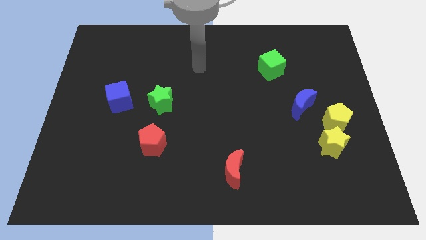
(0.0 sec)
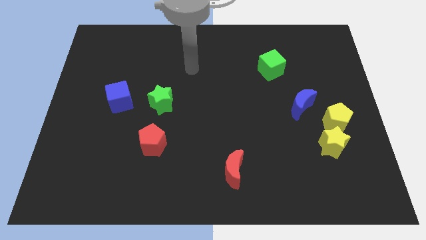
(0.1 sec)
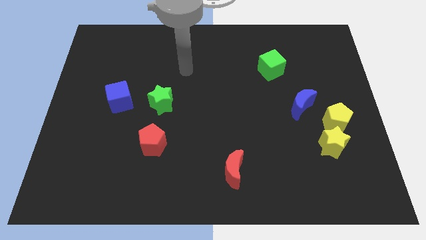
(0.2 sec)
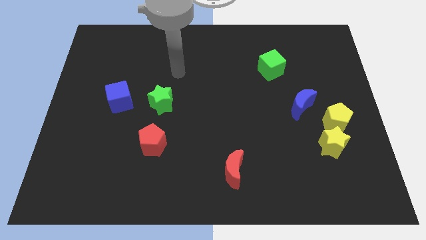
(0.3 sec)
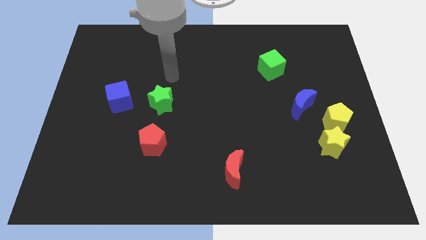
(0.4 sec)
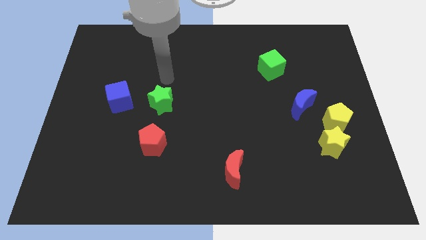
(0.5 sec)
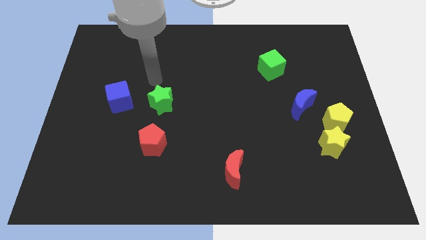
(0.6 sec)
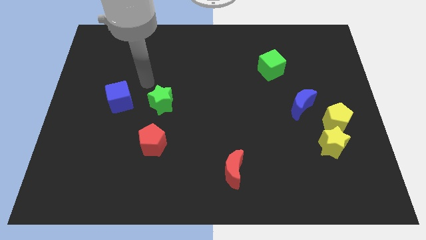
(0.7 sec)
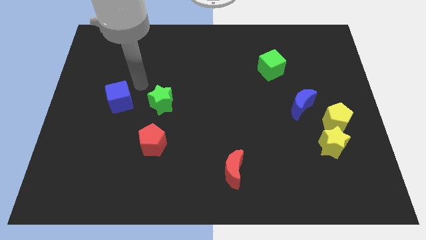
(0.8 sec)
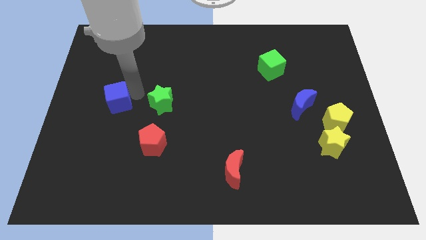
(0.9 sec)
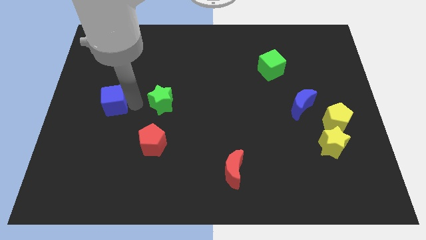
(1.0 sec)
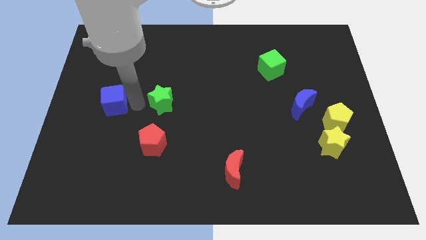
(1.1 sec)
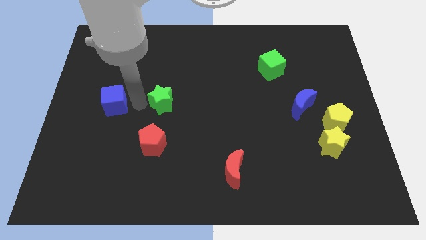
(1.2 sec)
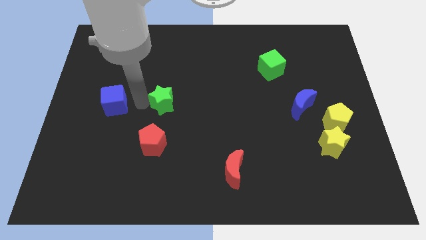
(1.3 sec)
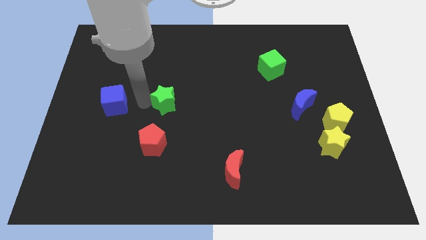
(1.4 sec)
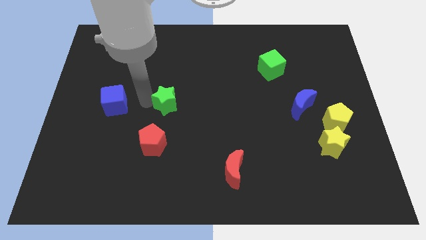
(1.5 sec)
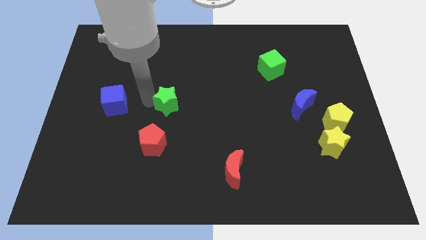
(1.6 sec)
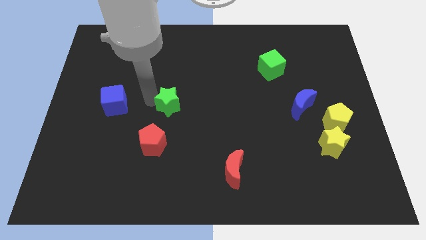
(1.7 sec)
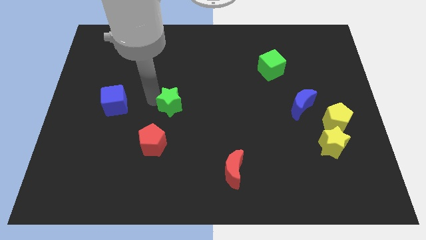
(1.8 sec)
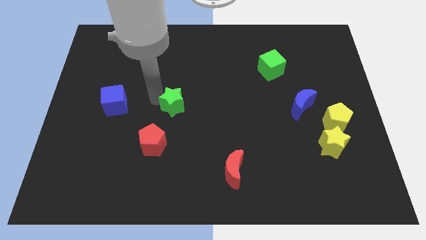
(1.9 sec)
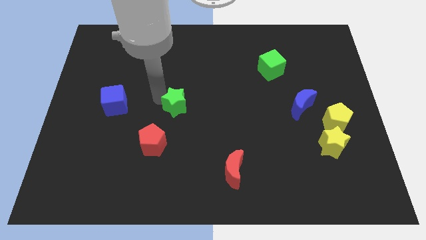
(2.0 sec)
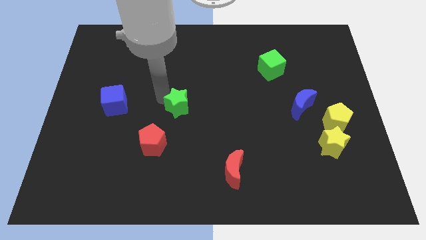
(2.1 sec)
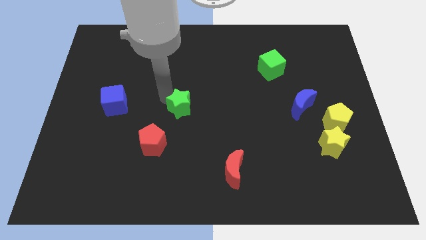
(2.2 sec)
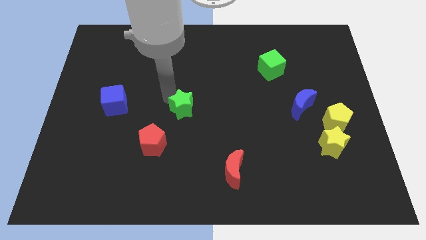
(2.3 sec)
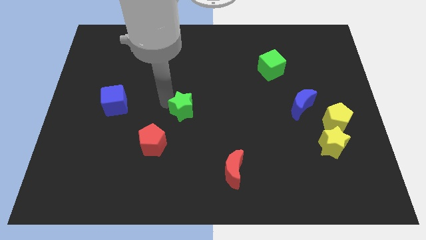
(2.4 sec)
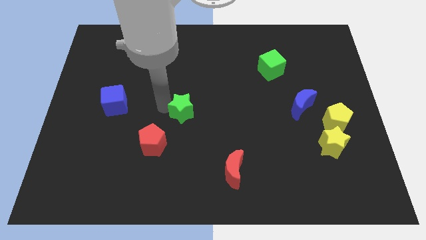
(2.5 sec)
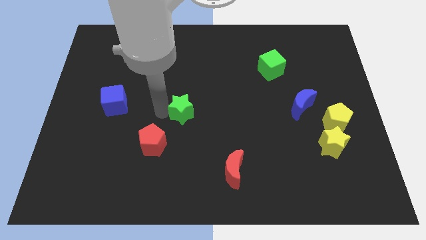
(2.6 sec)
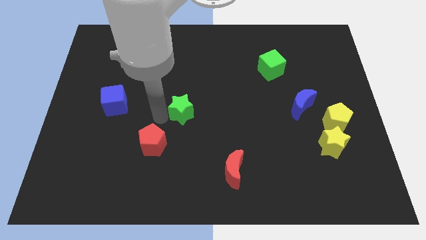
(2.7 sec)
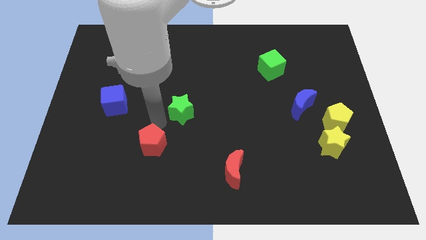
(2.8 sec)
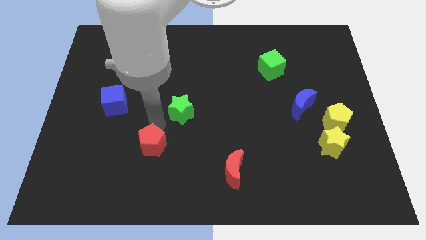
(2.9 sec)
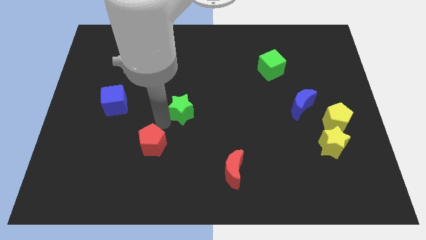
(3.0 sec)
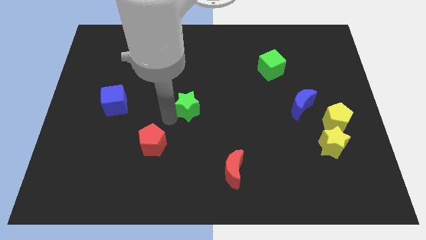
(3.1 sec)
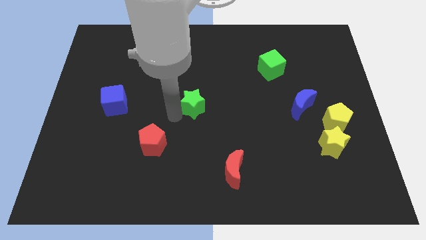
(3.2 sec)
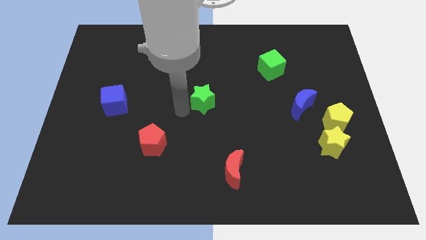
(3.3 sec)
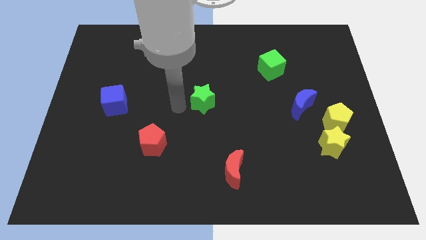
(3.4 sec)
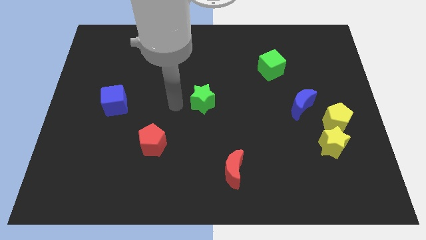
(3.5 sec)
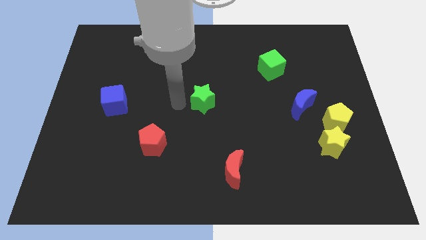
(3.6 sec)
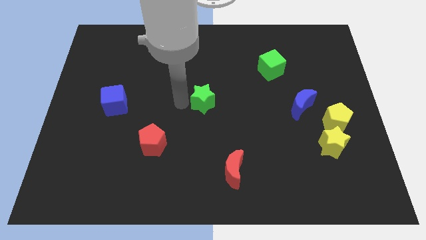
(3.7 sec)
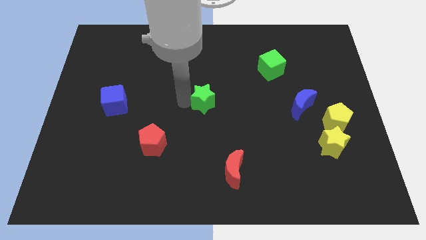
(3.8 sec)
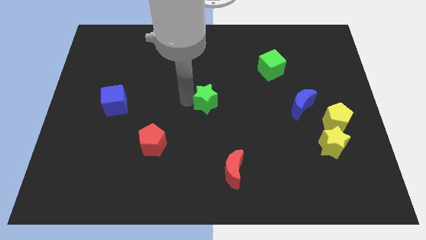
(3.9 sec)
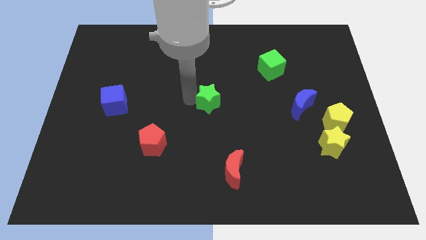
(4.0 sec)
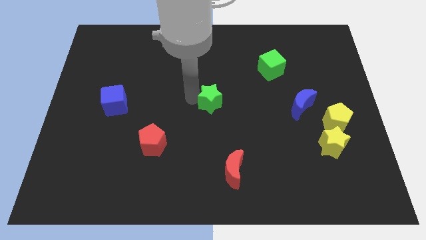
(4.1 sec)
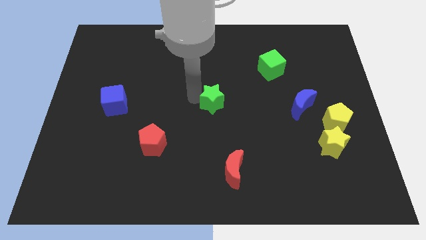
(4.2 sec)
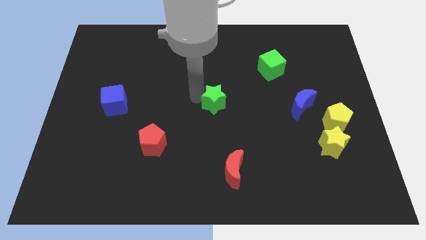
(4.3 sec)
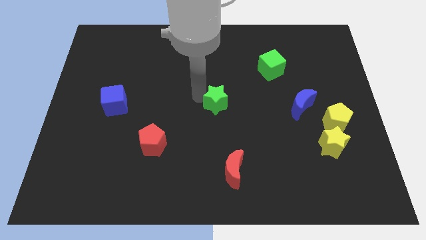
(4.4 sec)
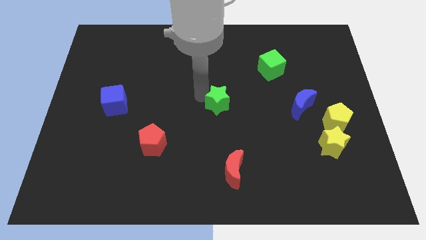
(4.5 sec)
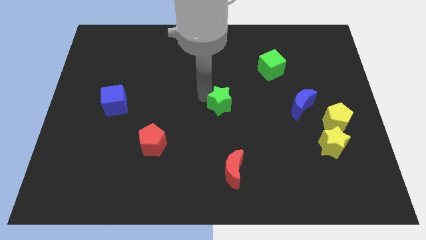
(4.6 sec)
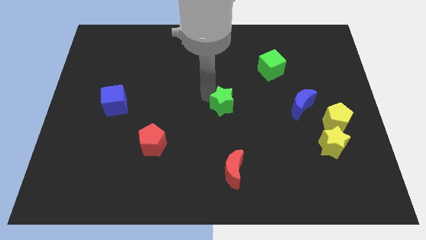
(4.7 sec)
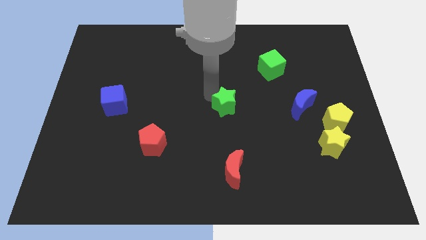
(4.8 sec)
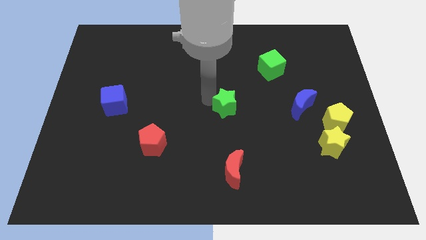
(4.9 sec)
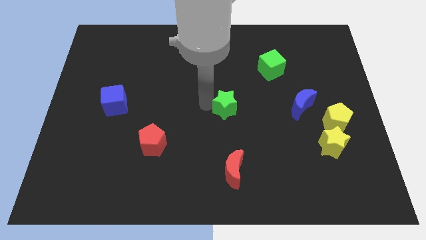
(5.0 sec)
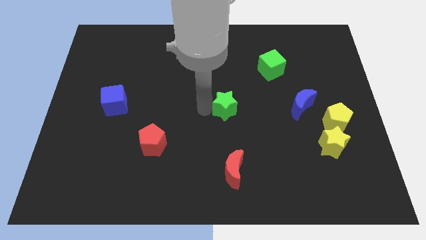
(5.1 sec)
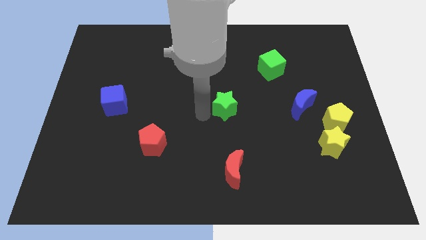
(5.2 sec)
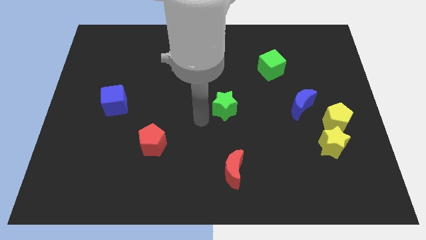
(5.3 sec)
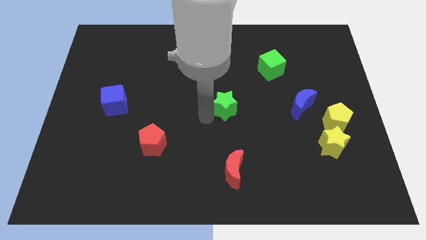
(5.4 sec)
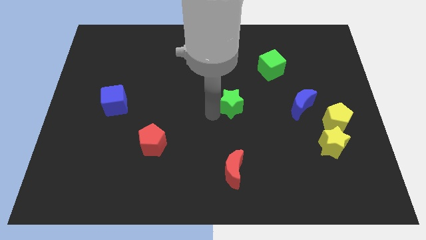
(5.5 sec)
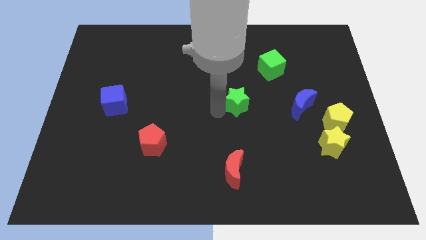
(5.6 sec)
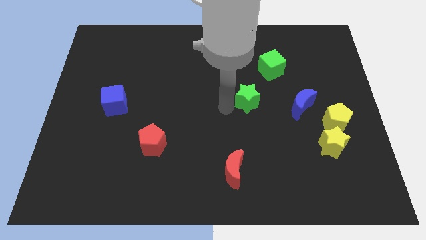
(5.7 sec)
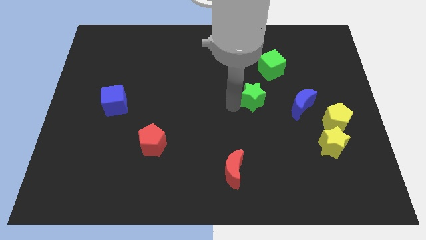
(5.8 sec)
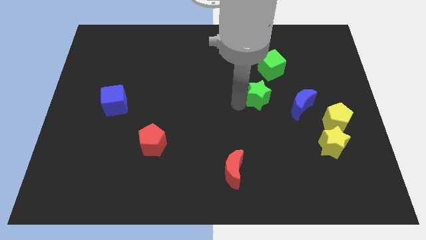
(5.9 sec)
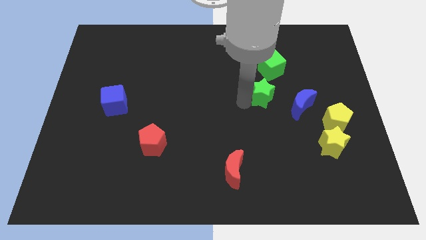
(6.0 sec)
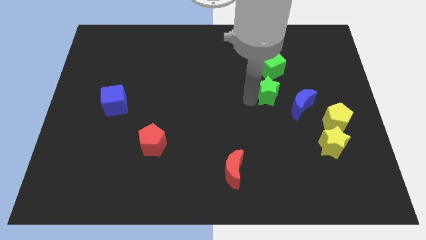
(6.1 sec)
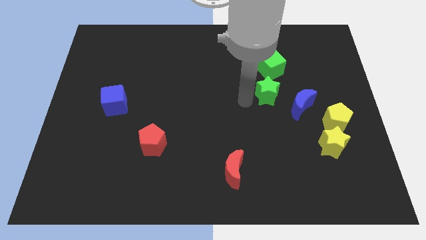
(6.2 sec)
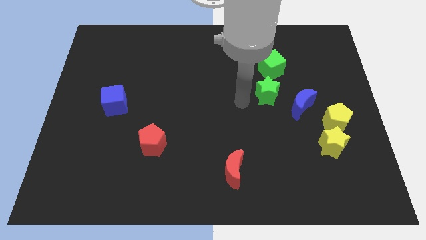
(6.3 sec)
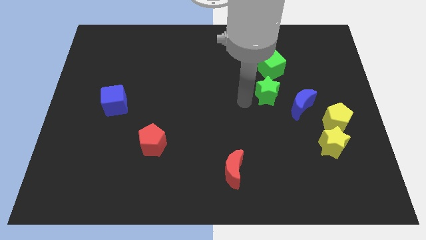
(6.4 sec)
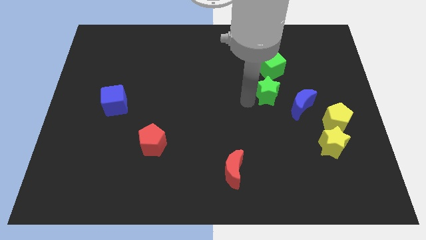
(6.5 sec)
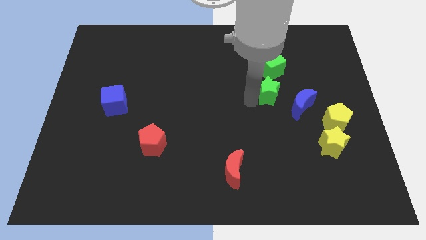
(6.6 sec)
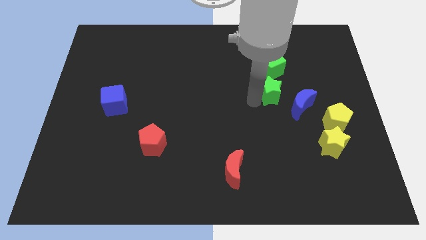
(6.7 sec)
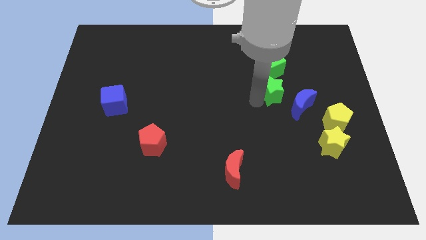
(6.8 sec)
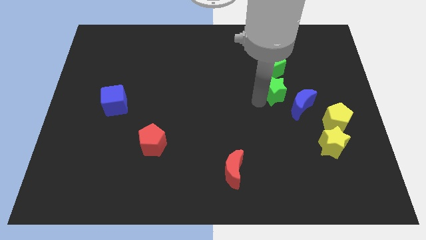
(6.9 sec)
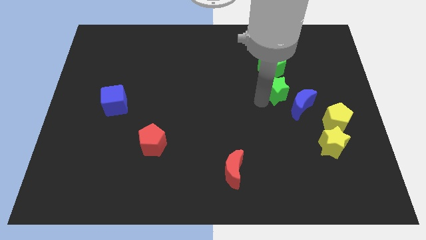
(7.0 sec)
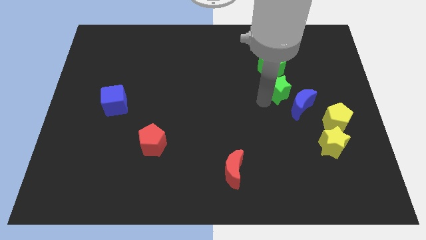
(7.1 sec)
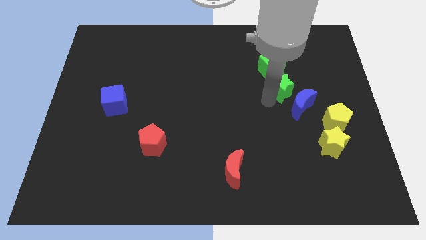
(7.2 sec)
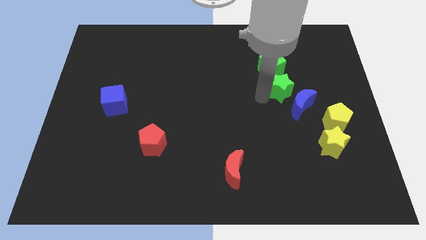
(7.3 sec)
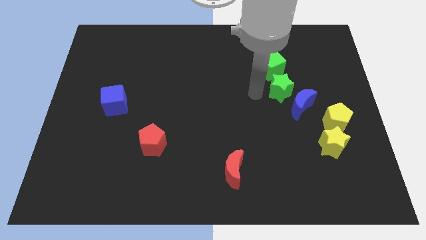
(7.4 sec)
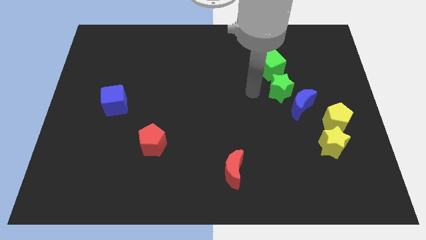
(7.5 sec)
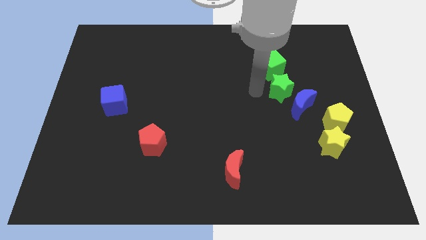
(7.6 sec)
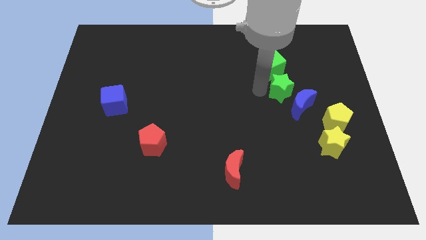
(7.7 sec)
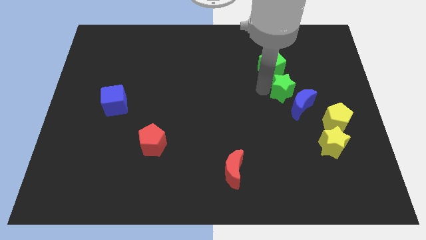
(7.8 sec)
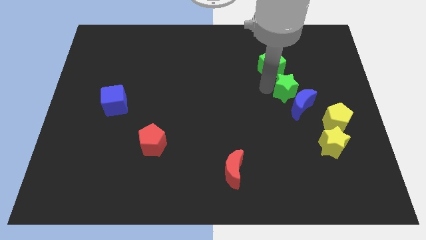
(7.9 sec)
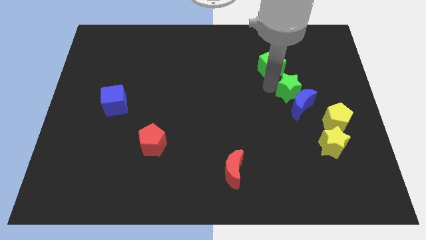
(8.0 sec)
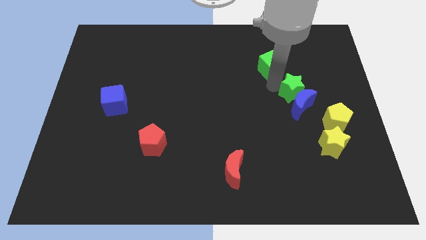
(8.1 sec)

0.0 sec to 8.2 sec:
push the green star to the top right of the blue moon
